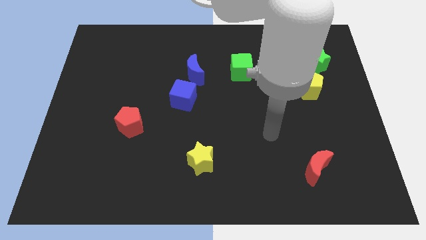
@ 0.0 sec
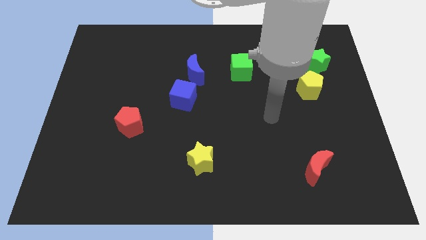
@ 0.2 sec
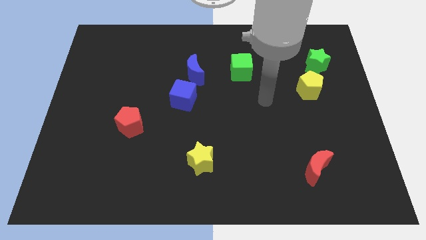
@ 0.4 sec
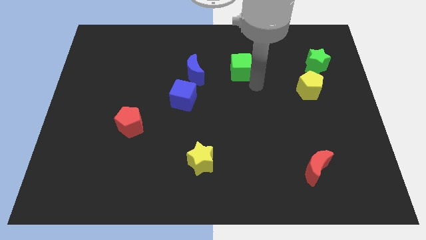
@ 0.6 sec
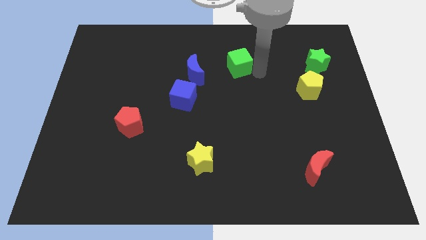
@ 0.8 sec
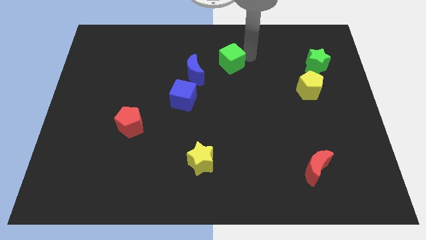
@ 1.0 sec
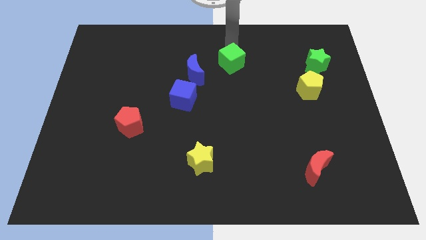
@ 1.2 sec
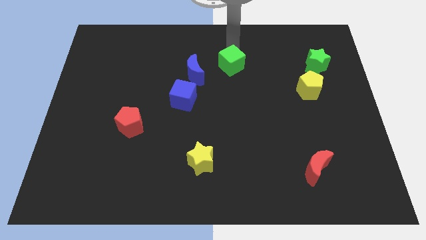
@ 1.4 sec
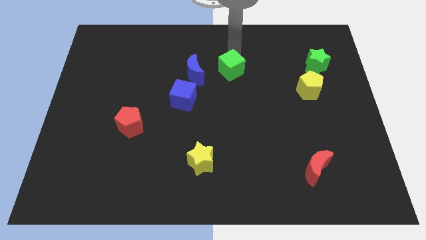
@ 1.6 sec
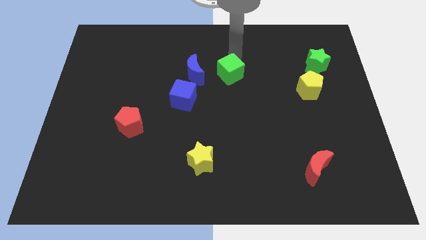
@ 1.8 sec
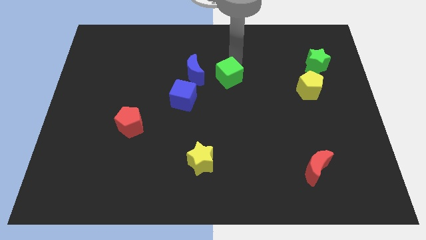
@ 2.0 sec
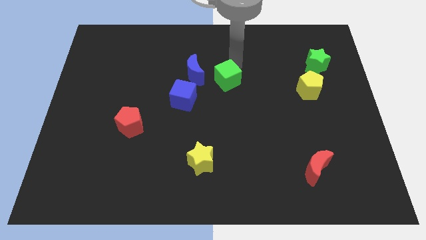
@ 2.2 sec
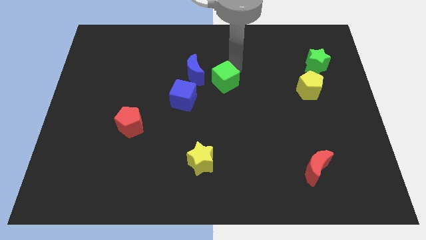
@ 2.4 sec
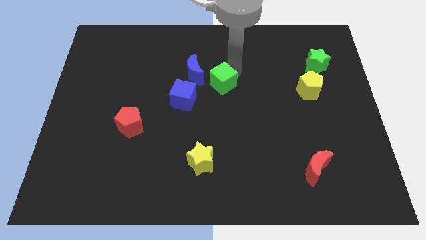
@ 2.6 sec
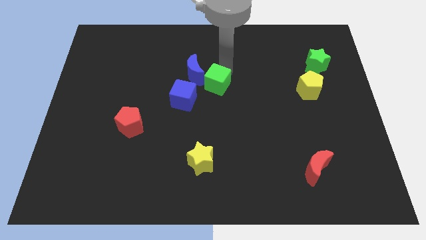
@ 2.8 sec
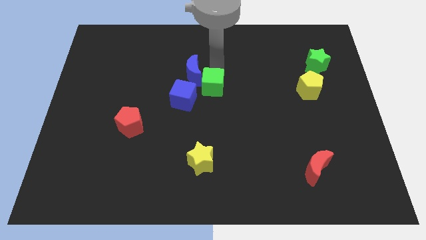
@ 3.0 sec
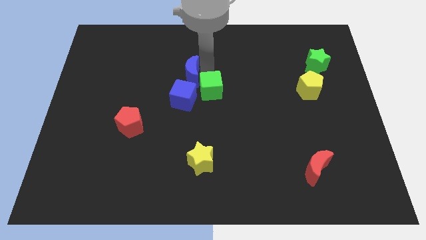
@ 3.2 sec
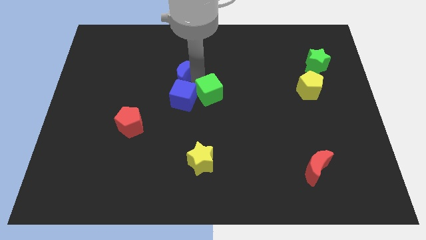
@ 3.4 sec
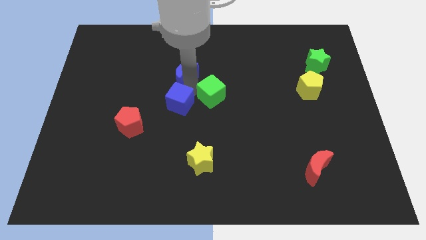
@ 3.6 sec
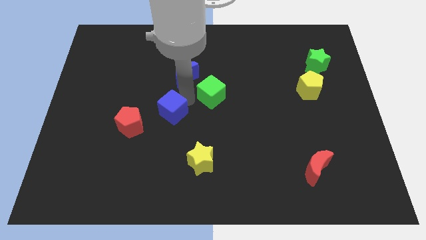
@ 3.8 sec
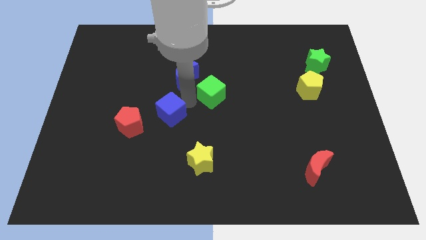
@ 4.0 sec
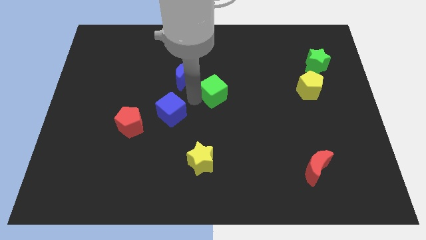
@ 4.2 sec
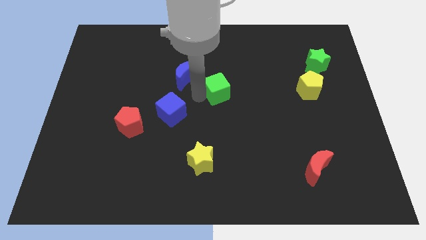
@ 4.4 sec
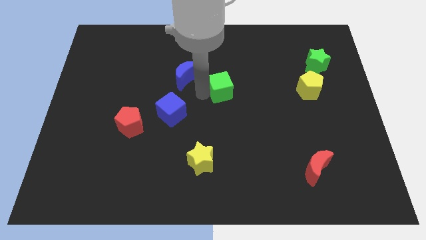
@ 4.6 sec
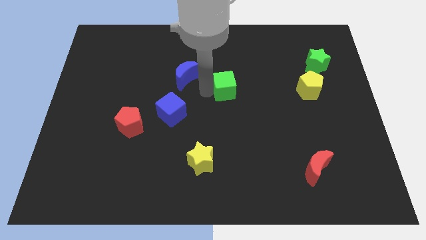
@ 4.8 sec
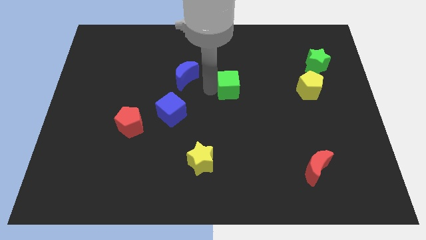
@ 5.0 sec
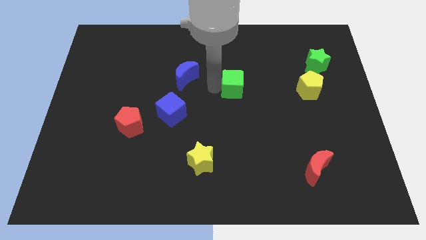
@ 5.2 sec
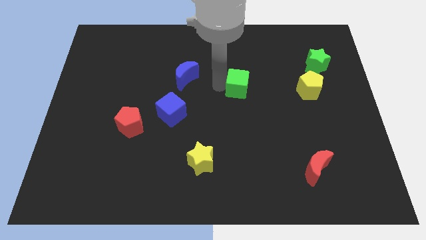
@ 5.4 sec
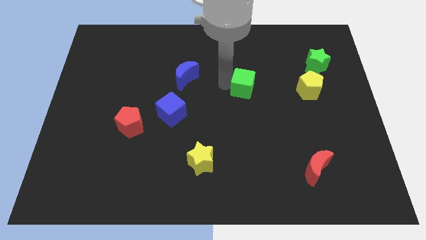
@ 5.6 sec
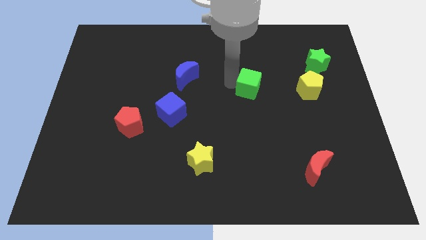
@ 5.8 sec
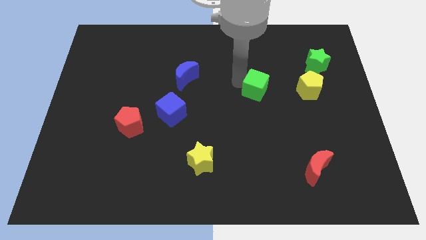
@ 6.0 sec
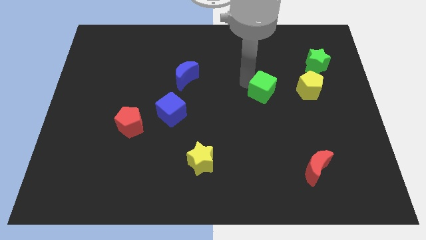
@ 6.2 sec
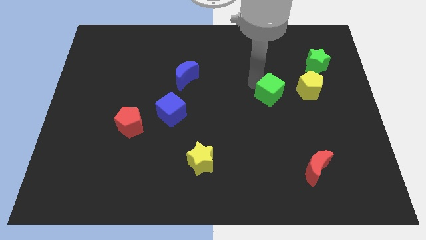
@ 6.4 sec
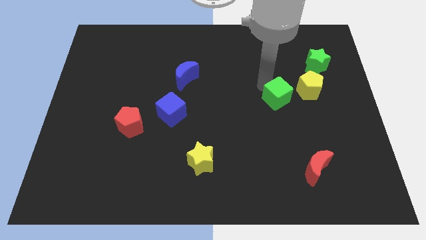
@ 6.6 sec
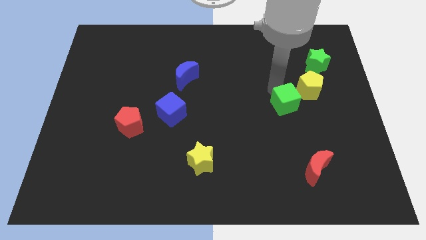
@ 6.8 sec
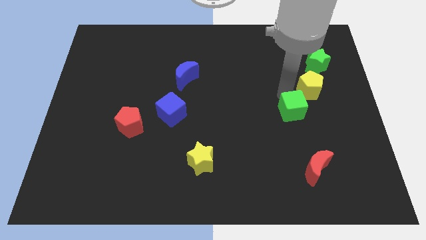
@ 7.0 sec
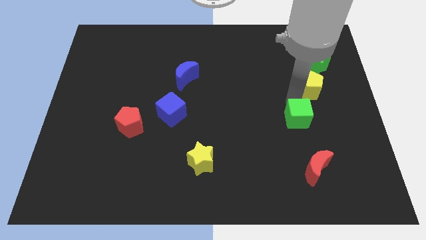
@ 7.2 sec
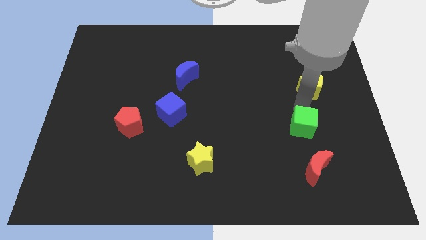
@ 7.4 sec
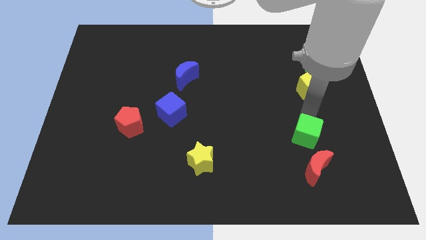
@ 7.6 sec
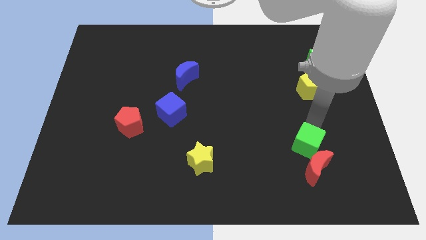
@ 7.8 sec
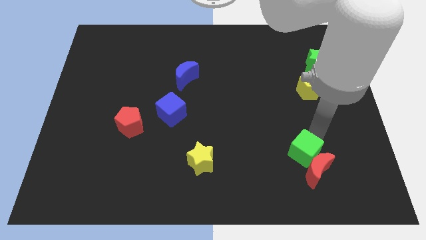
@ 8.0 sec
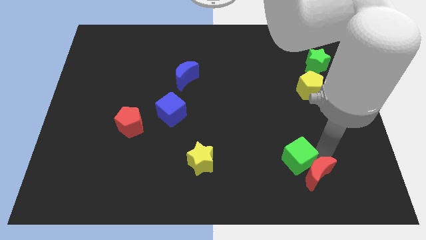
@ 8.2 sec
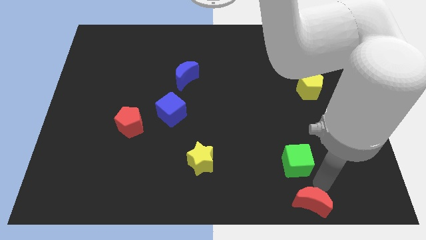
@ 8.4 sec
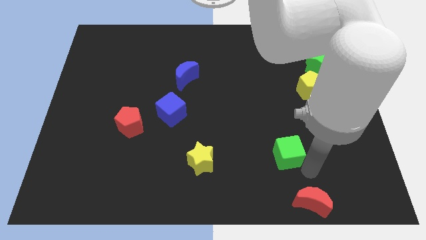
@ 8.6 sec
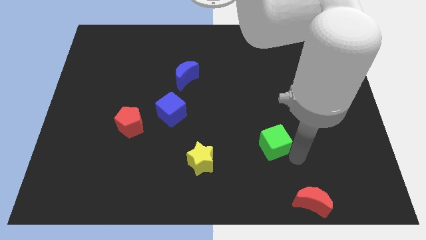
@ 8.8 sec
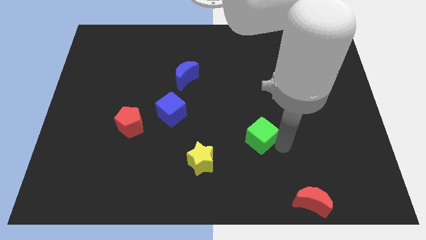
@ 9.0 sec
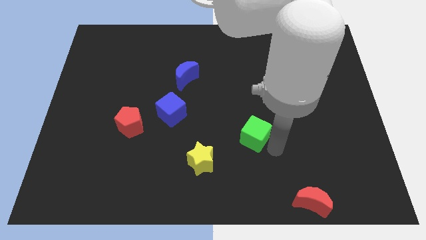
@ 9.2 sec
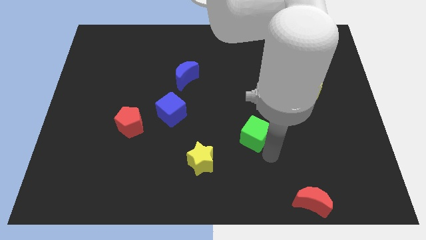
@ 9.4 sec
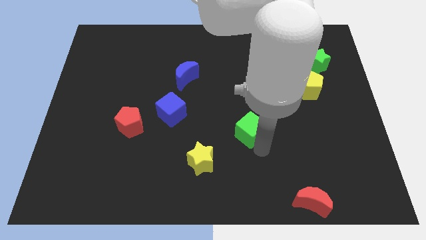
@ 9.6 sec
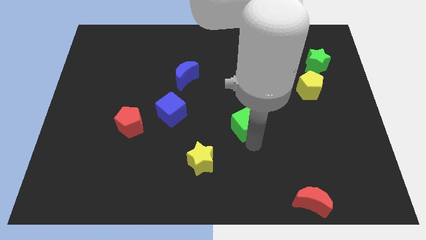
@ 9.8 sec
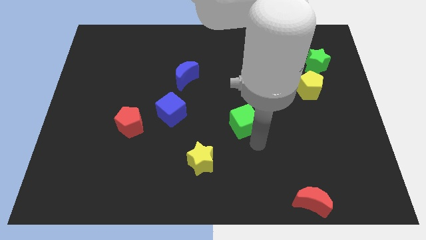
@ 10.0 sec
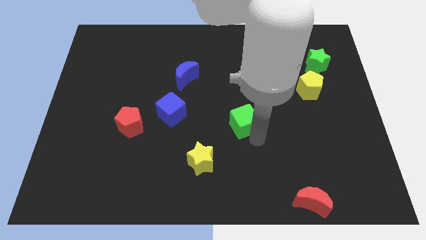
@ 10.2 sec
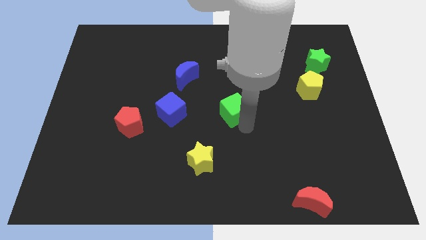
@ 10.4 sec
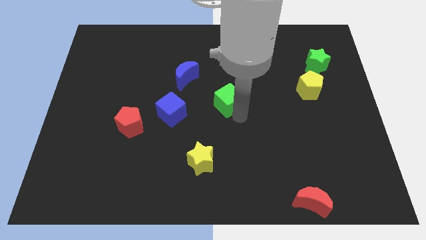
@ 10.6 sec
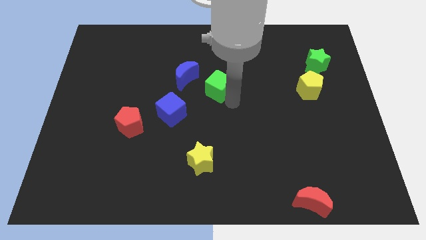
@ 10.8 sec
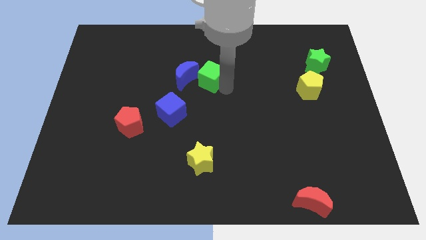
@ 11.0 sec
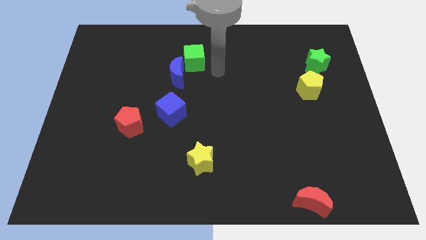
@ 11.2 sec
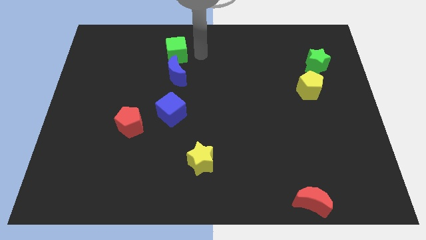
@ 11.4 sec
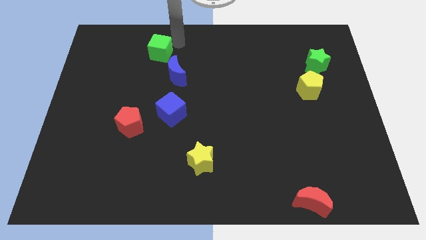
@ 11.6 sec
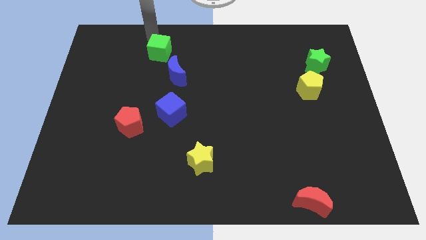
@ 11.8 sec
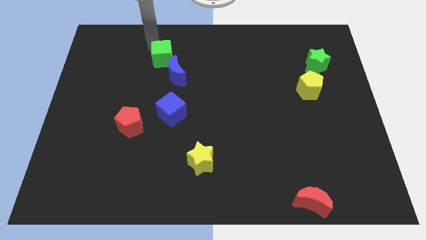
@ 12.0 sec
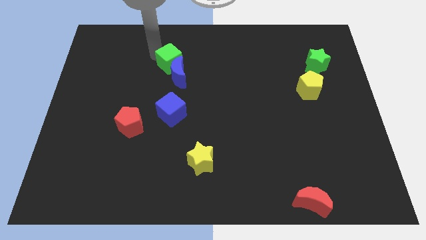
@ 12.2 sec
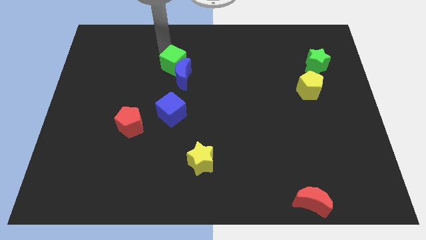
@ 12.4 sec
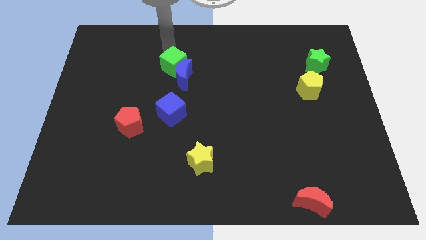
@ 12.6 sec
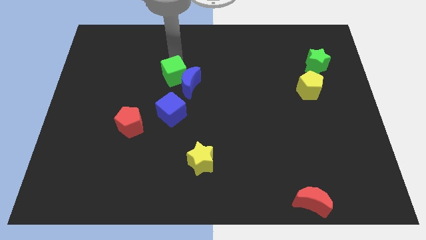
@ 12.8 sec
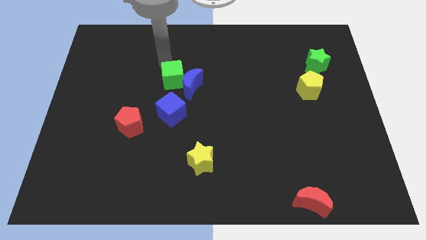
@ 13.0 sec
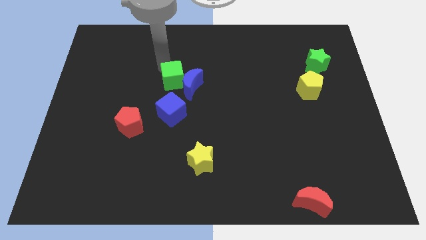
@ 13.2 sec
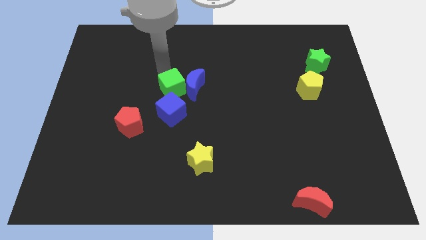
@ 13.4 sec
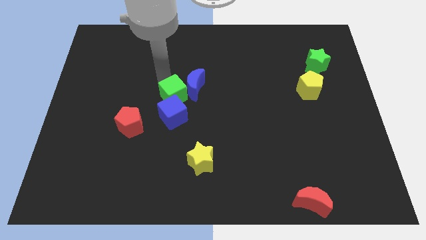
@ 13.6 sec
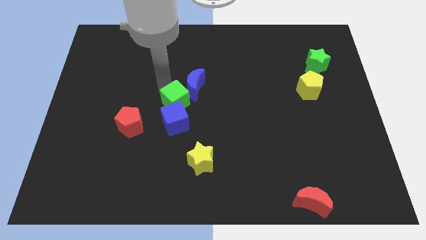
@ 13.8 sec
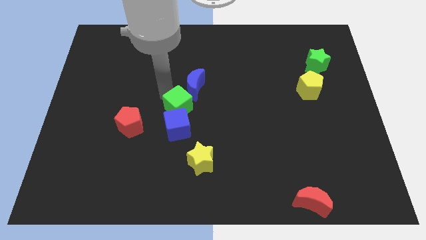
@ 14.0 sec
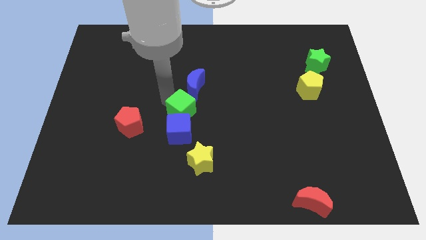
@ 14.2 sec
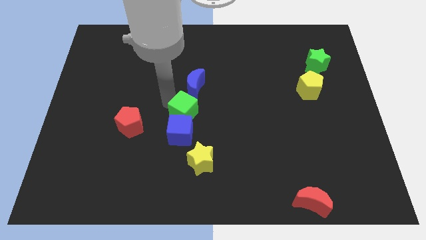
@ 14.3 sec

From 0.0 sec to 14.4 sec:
slide the green cube to the top side of the yellow star
